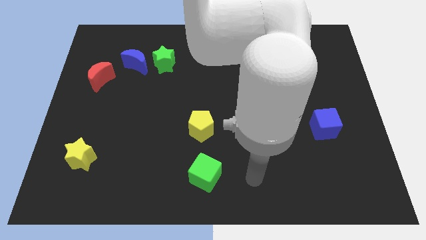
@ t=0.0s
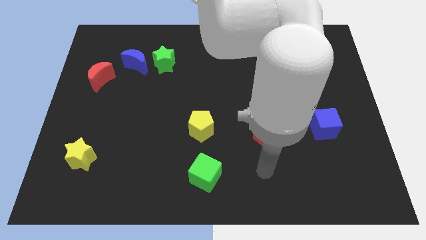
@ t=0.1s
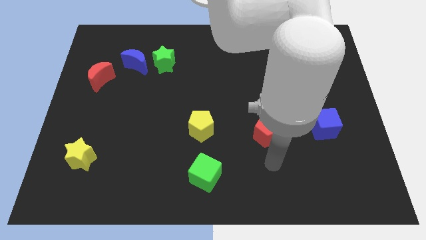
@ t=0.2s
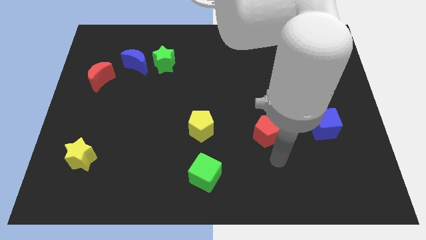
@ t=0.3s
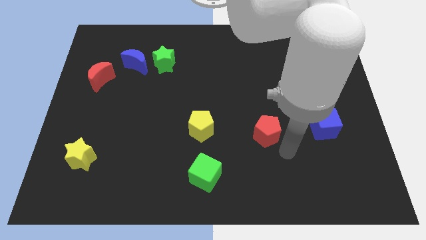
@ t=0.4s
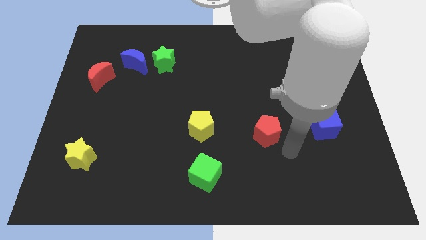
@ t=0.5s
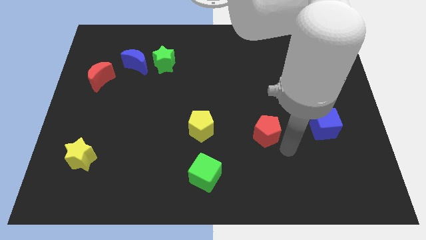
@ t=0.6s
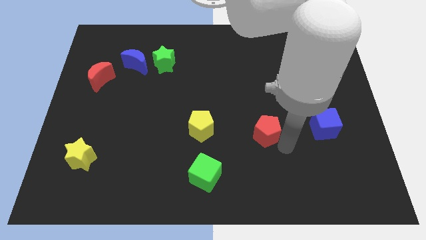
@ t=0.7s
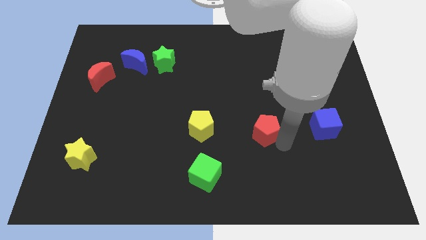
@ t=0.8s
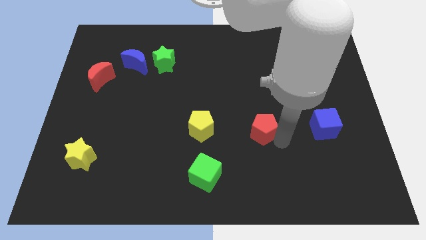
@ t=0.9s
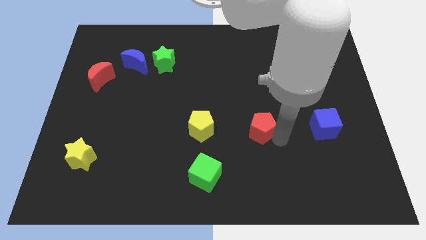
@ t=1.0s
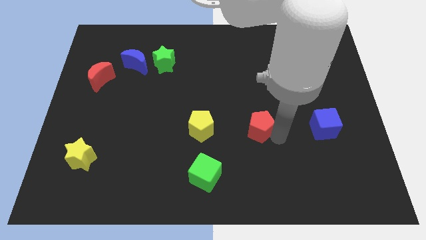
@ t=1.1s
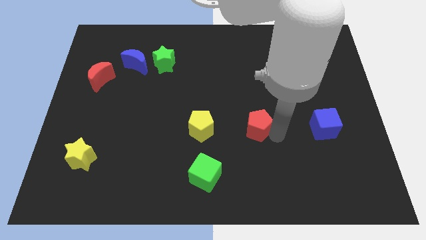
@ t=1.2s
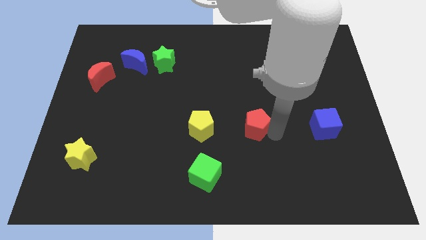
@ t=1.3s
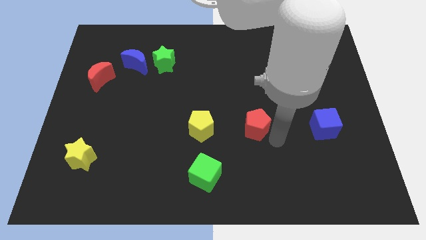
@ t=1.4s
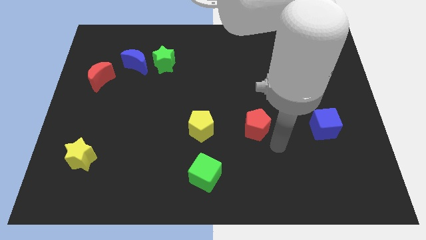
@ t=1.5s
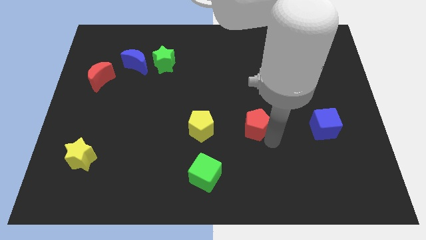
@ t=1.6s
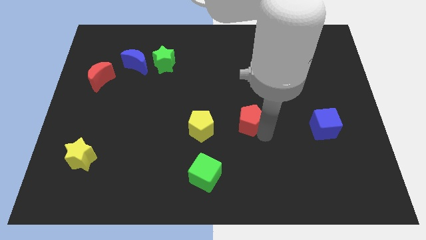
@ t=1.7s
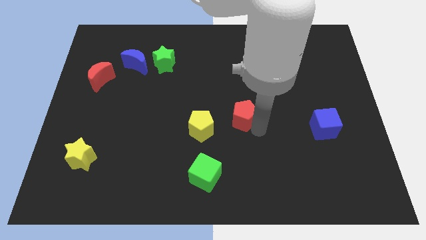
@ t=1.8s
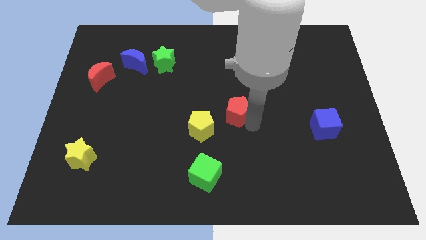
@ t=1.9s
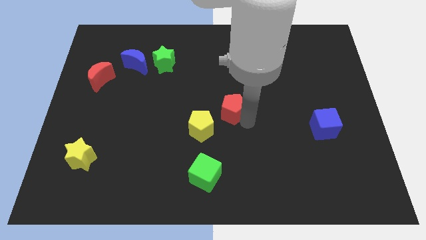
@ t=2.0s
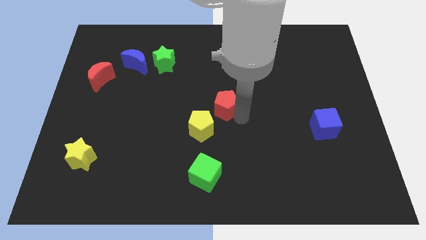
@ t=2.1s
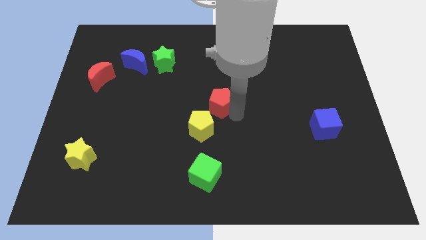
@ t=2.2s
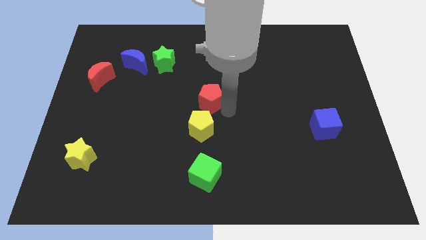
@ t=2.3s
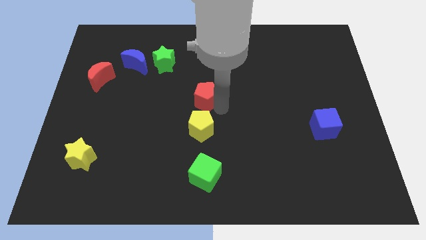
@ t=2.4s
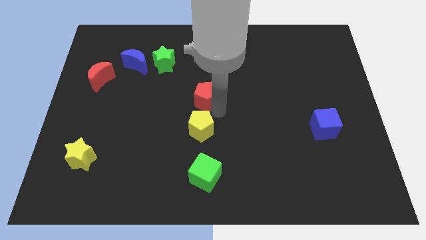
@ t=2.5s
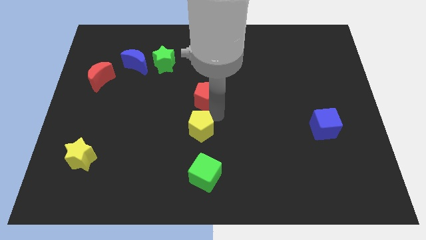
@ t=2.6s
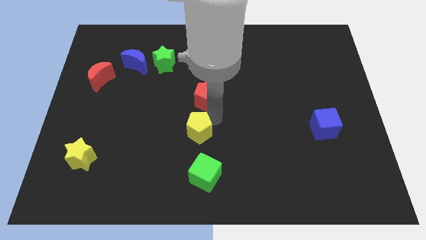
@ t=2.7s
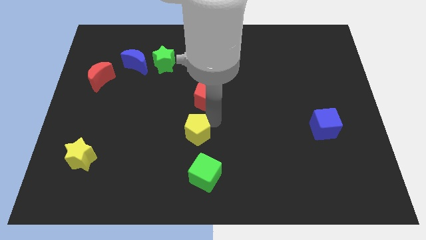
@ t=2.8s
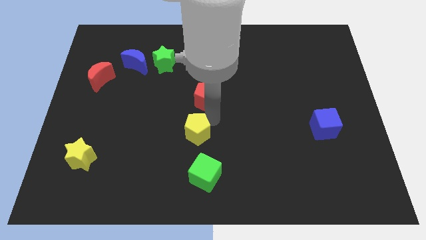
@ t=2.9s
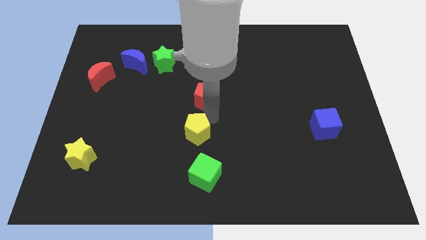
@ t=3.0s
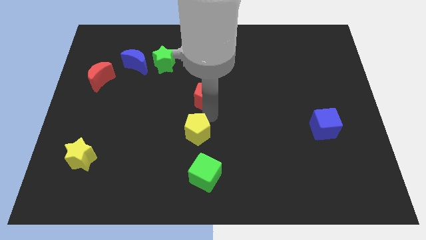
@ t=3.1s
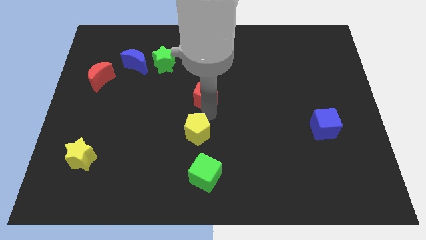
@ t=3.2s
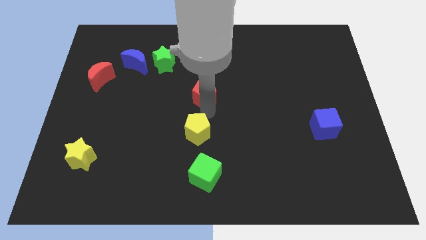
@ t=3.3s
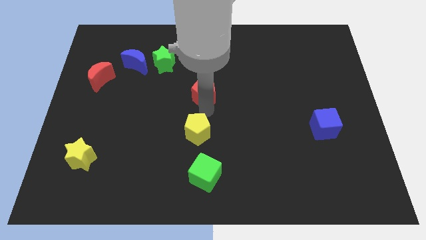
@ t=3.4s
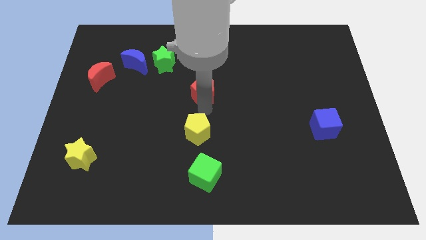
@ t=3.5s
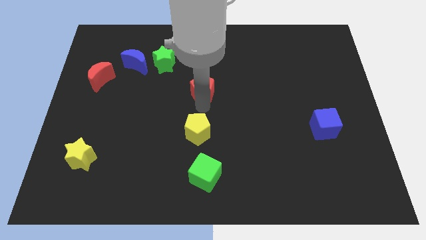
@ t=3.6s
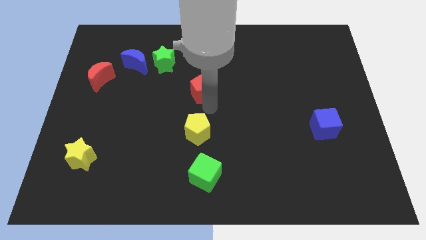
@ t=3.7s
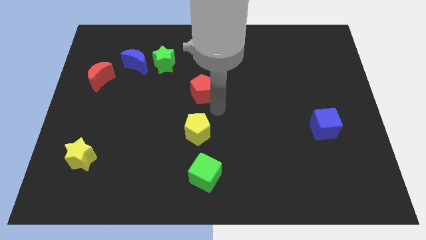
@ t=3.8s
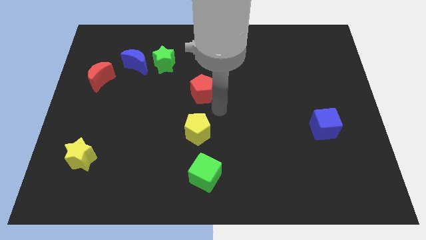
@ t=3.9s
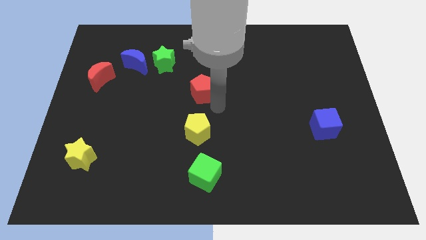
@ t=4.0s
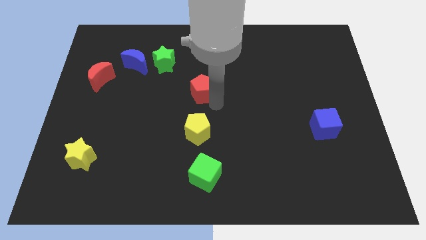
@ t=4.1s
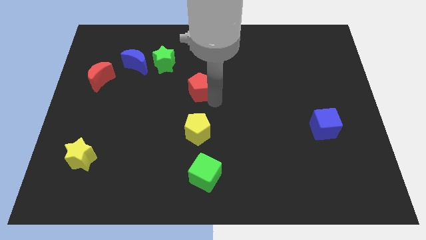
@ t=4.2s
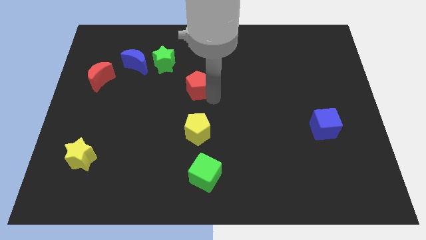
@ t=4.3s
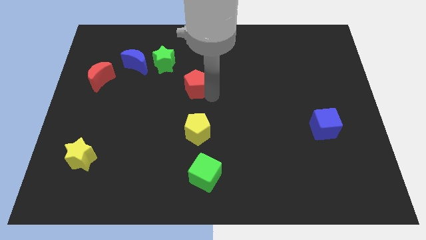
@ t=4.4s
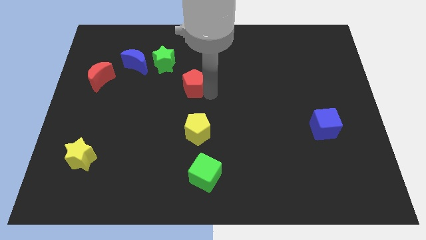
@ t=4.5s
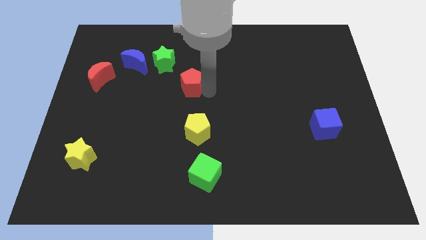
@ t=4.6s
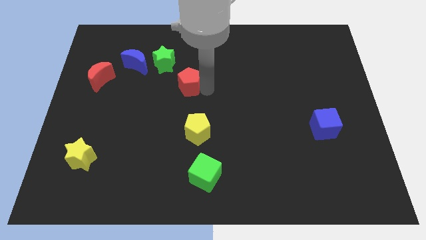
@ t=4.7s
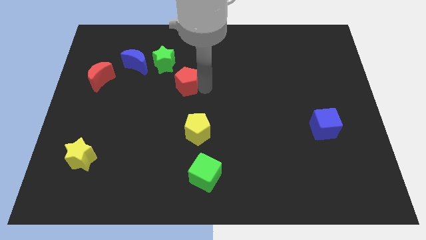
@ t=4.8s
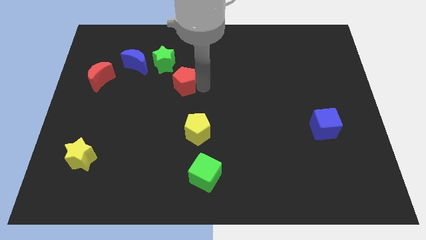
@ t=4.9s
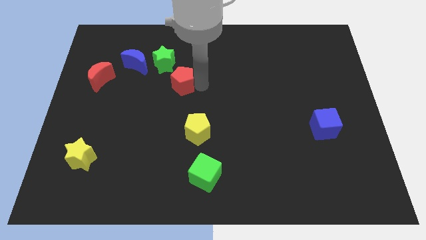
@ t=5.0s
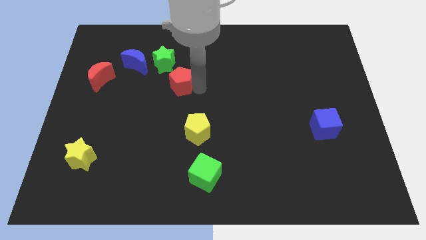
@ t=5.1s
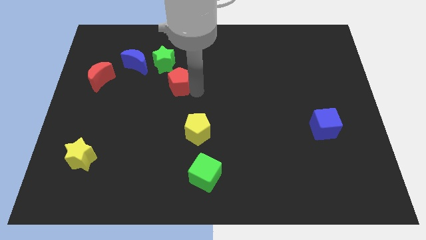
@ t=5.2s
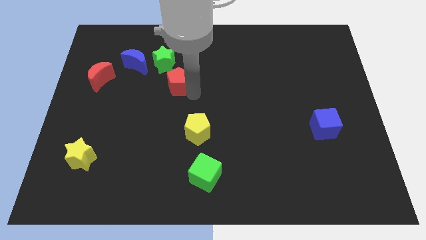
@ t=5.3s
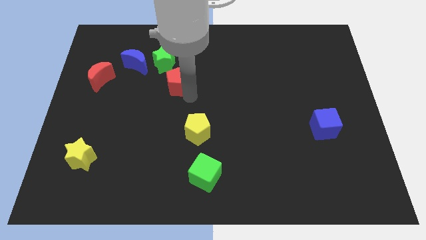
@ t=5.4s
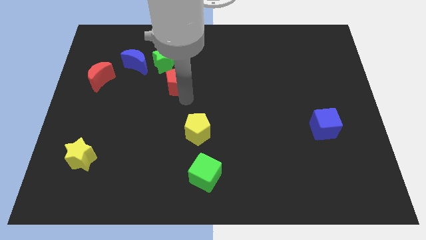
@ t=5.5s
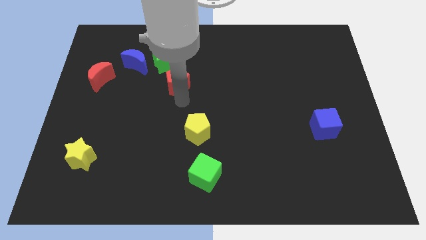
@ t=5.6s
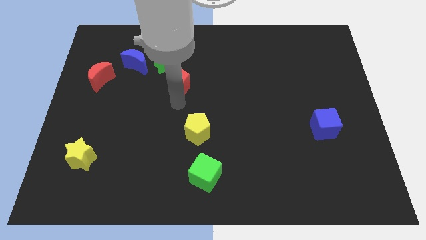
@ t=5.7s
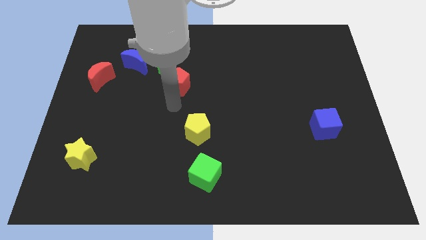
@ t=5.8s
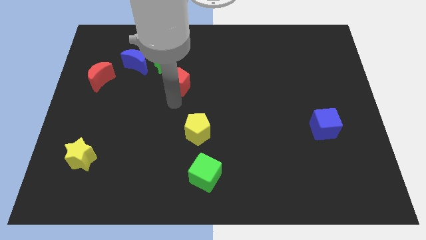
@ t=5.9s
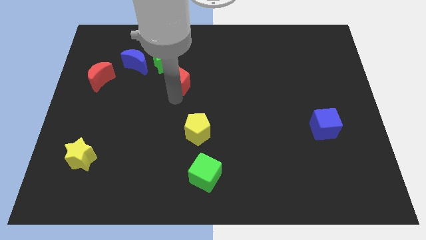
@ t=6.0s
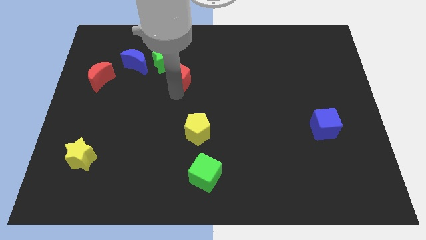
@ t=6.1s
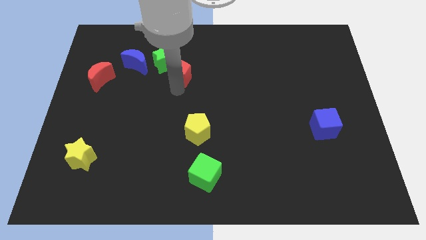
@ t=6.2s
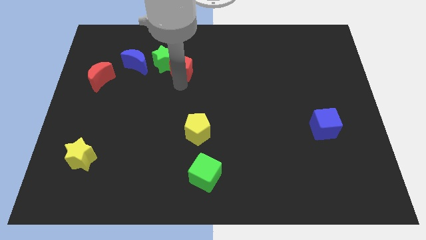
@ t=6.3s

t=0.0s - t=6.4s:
slide the red pentagon to the green star

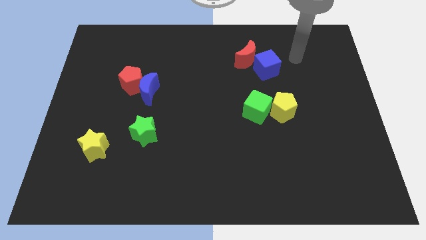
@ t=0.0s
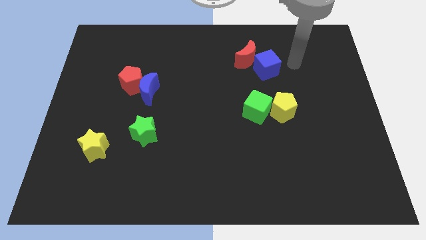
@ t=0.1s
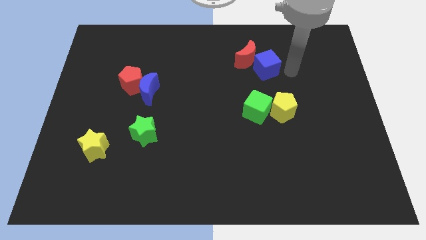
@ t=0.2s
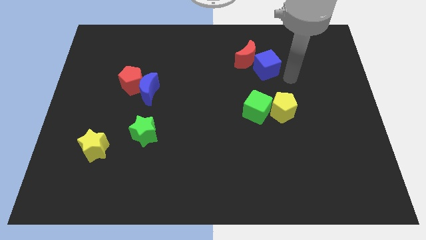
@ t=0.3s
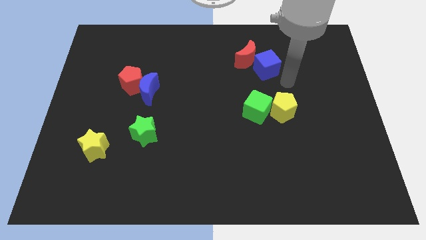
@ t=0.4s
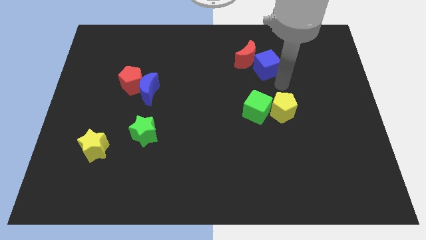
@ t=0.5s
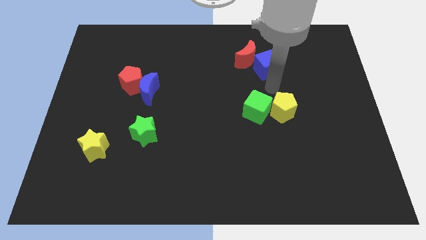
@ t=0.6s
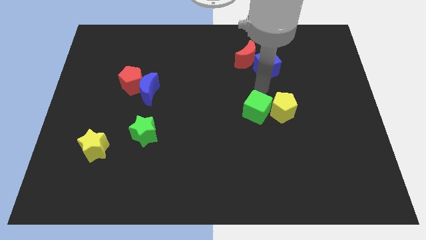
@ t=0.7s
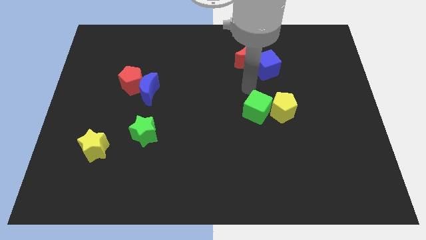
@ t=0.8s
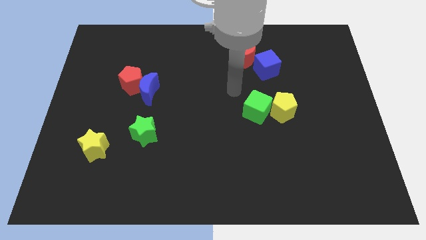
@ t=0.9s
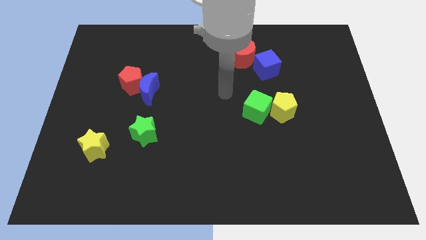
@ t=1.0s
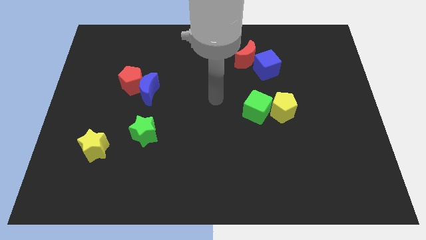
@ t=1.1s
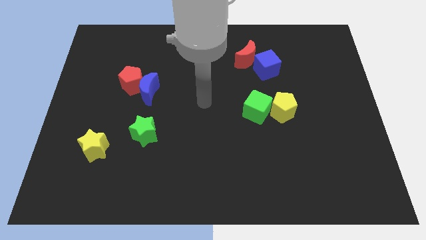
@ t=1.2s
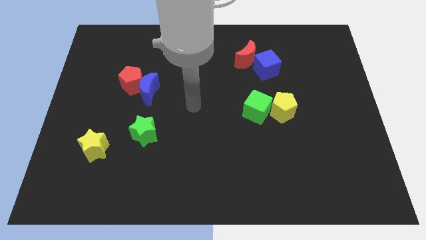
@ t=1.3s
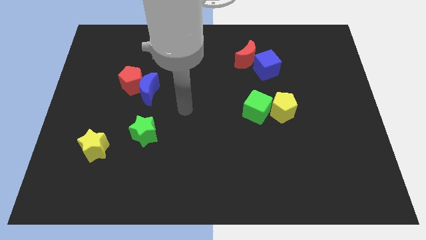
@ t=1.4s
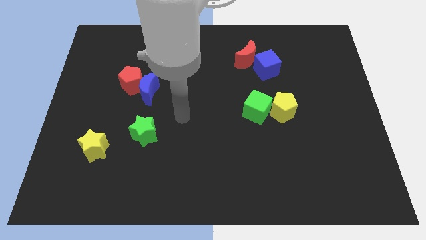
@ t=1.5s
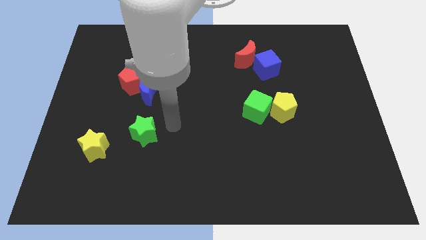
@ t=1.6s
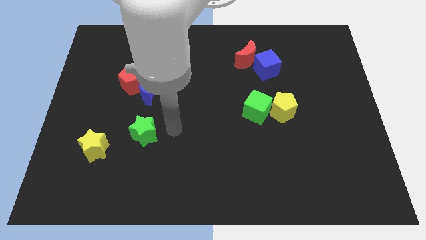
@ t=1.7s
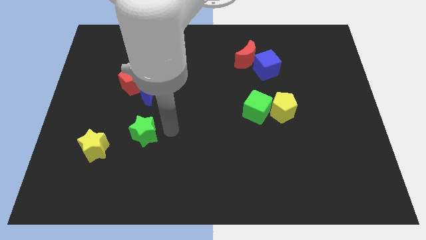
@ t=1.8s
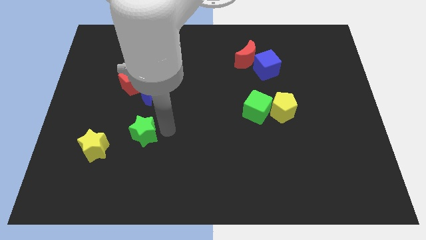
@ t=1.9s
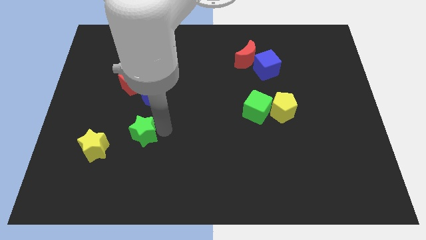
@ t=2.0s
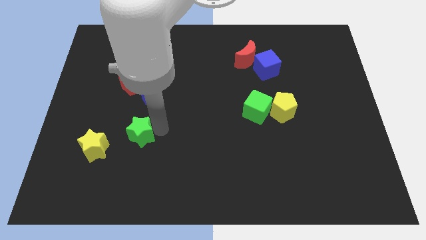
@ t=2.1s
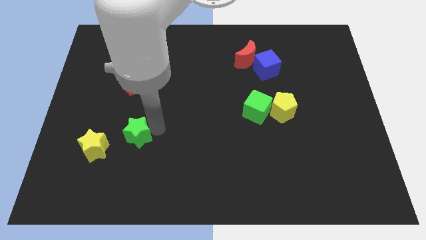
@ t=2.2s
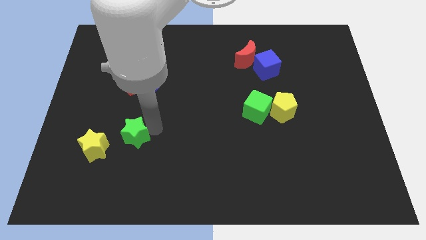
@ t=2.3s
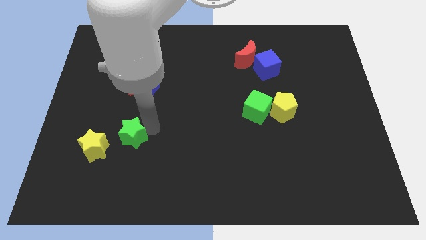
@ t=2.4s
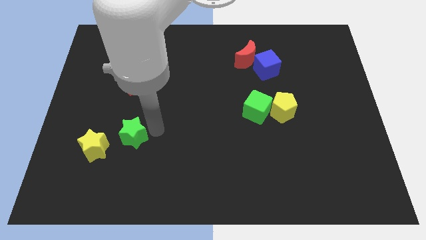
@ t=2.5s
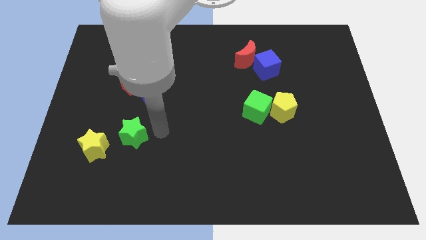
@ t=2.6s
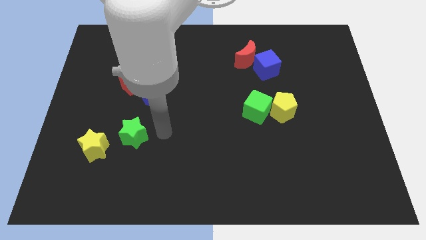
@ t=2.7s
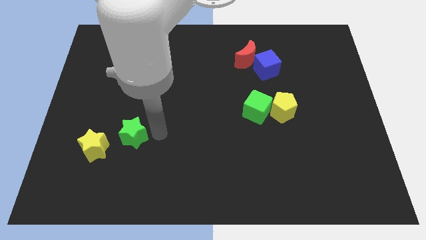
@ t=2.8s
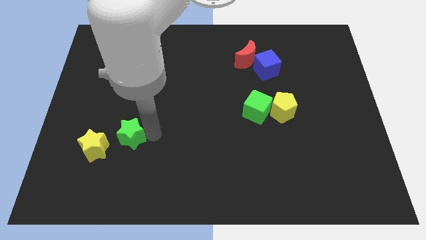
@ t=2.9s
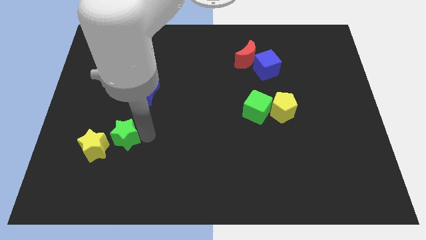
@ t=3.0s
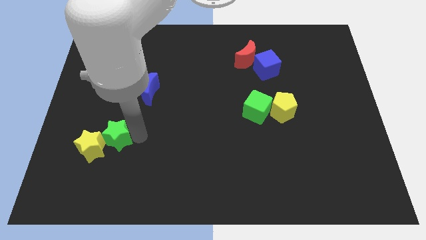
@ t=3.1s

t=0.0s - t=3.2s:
push the green star next to the yellow star
